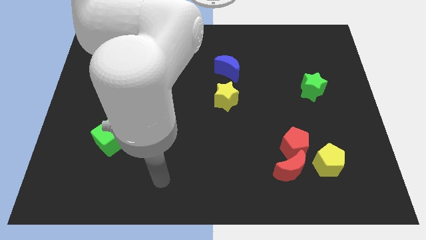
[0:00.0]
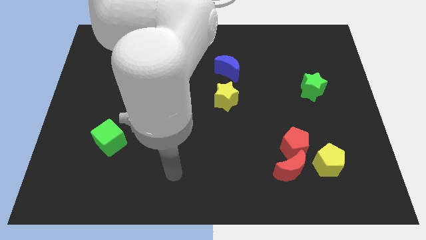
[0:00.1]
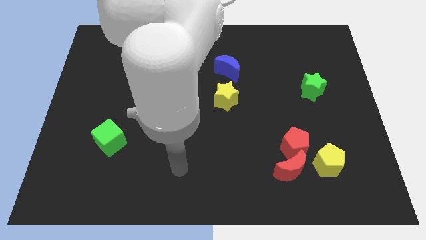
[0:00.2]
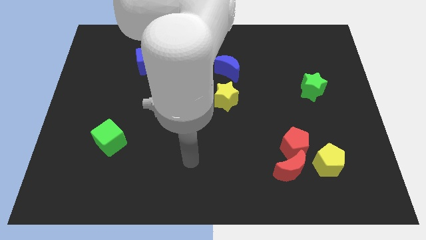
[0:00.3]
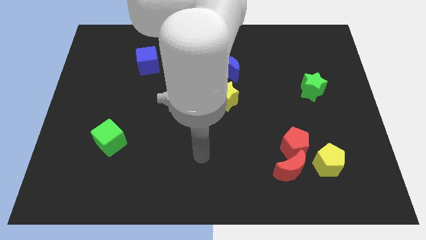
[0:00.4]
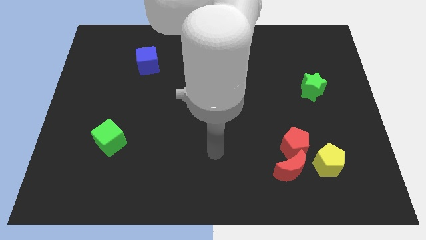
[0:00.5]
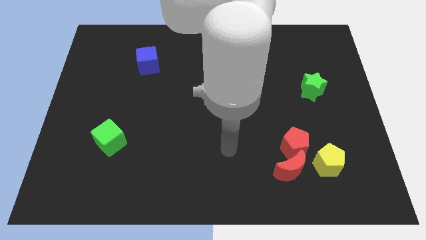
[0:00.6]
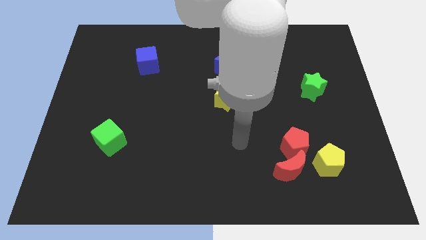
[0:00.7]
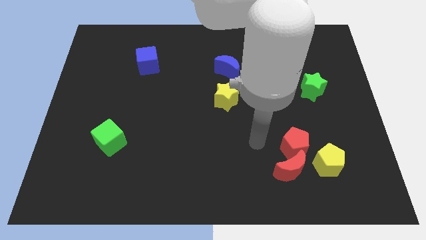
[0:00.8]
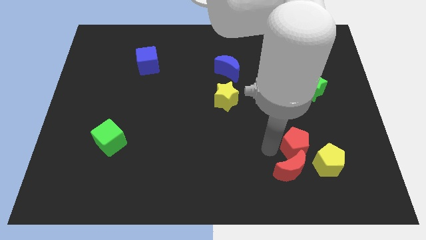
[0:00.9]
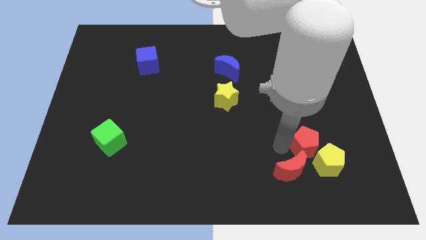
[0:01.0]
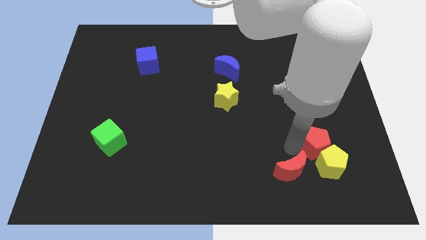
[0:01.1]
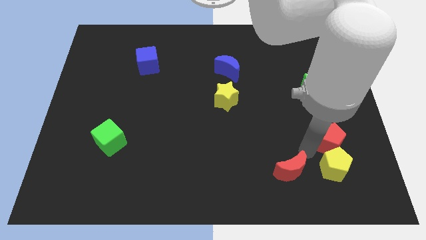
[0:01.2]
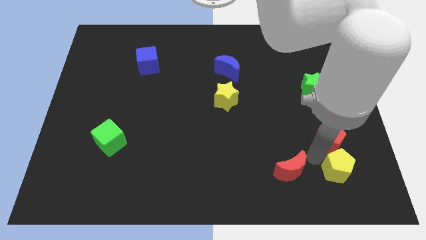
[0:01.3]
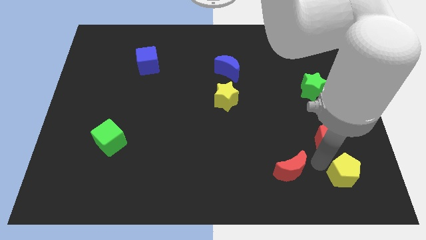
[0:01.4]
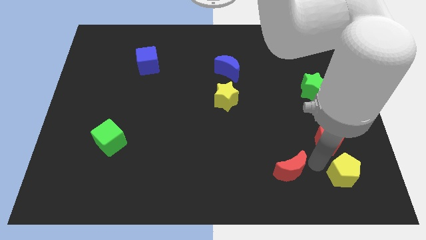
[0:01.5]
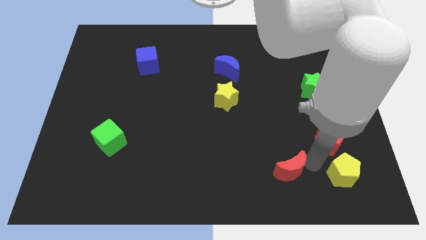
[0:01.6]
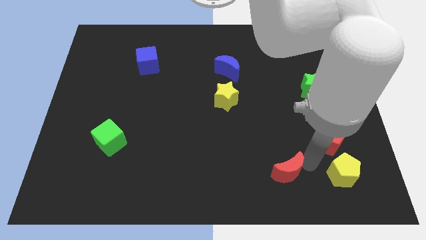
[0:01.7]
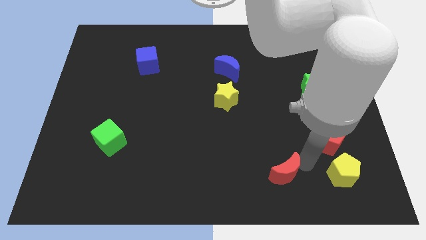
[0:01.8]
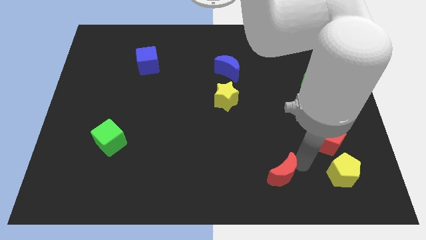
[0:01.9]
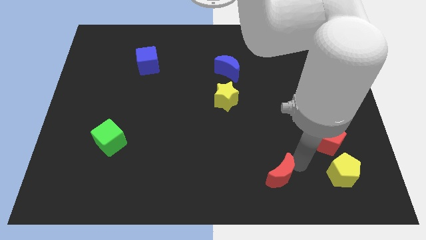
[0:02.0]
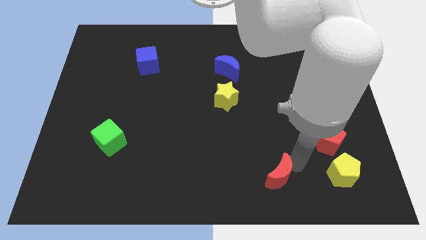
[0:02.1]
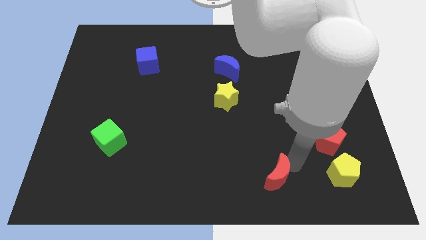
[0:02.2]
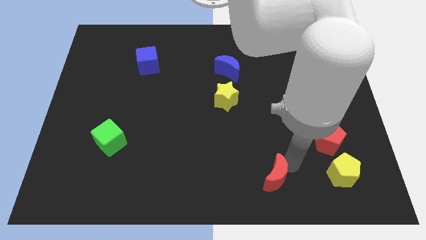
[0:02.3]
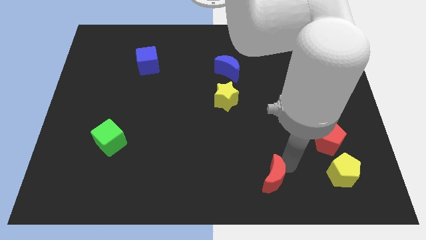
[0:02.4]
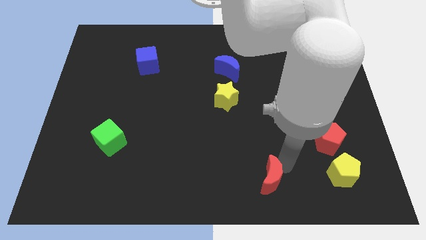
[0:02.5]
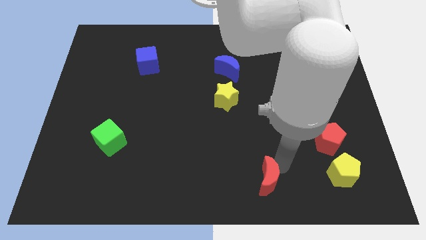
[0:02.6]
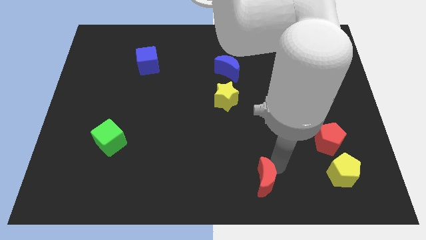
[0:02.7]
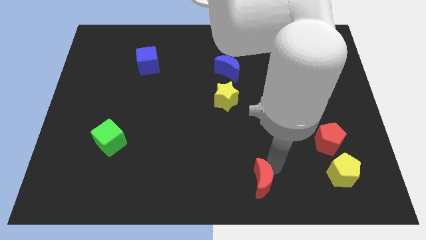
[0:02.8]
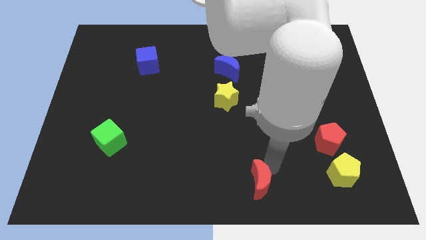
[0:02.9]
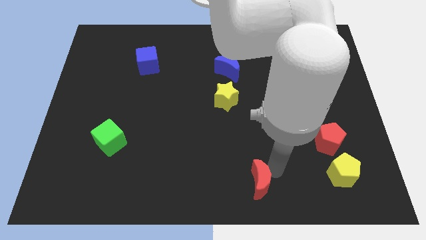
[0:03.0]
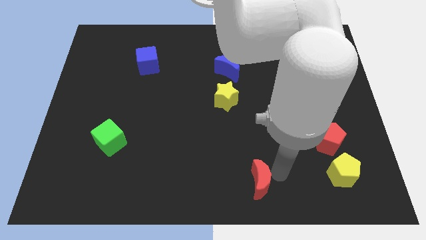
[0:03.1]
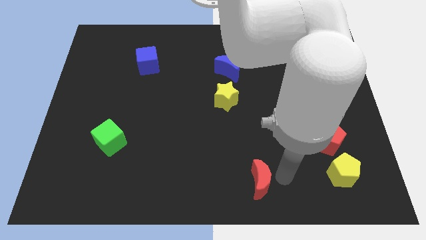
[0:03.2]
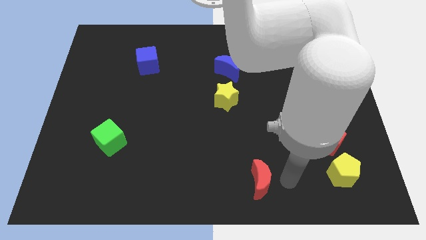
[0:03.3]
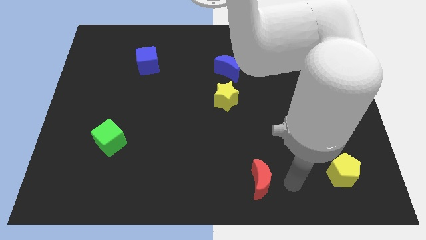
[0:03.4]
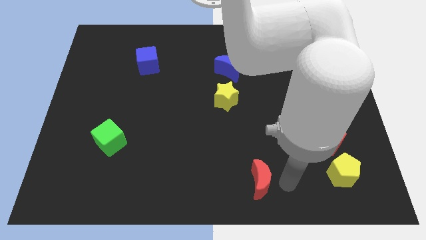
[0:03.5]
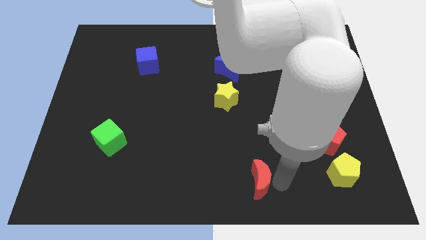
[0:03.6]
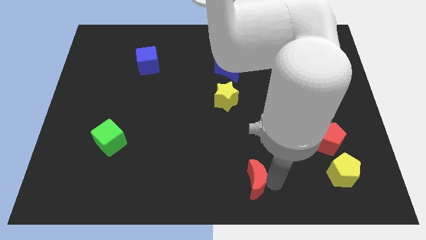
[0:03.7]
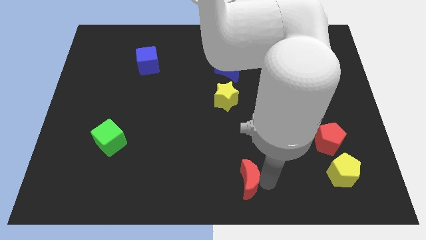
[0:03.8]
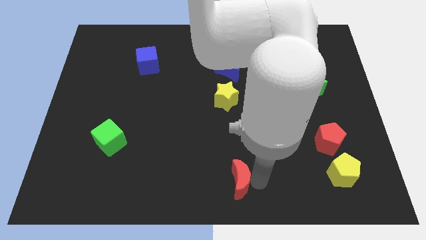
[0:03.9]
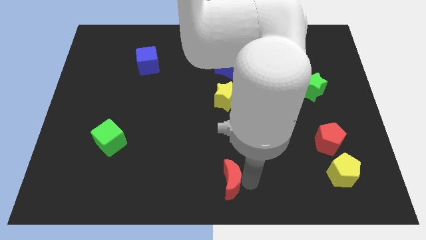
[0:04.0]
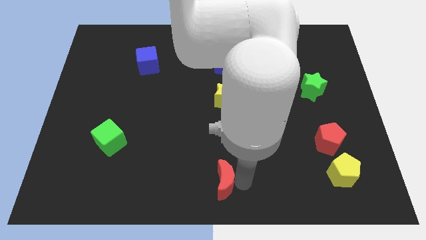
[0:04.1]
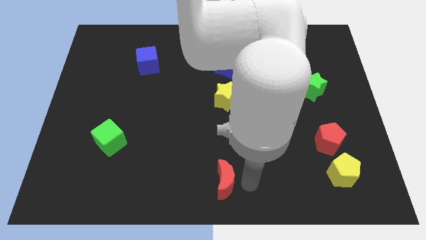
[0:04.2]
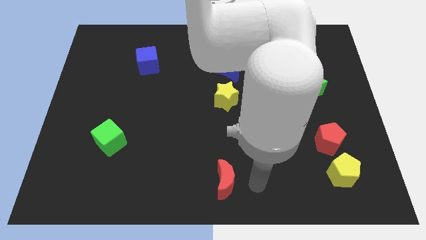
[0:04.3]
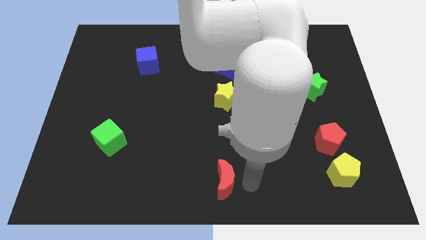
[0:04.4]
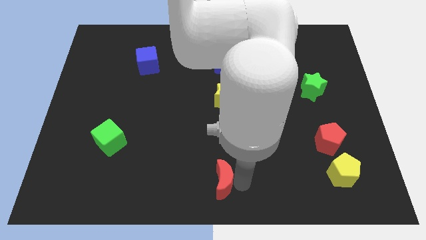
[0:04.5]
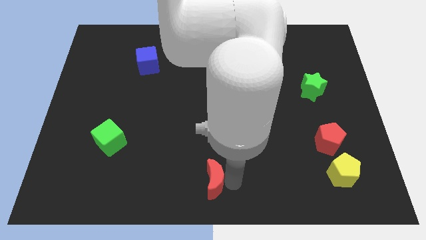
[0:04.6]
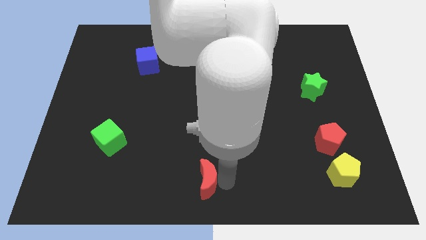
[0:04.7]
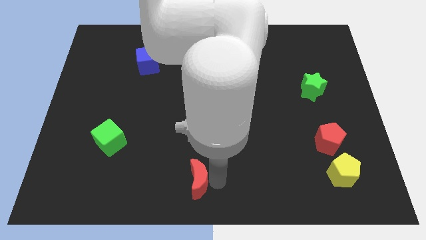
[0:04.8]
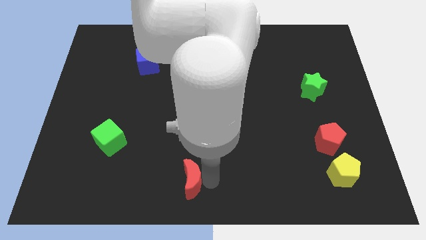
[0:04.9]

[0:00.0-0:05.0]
move the red moon to the left

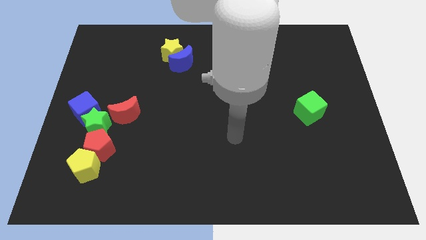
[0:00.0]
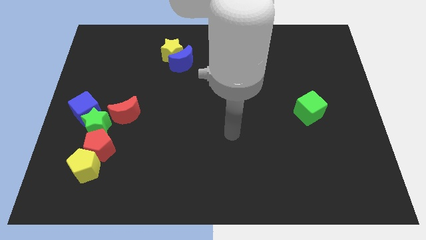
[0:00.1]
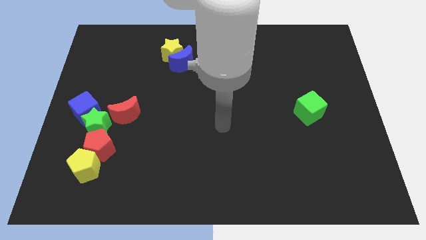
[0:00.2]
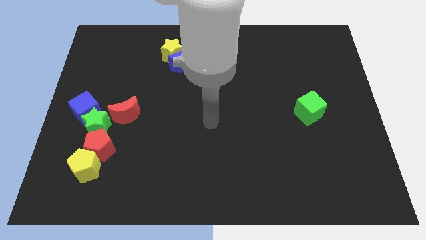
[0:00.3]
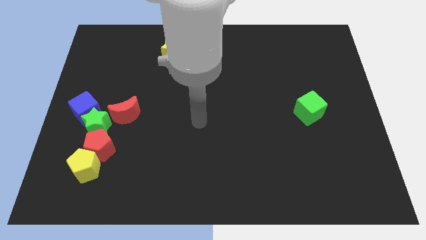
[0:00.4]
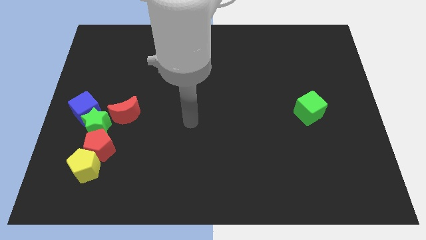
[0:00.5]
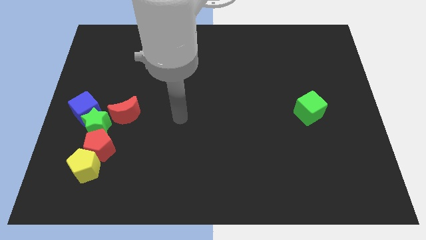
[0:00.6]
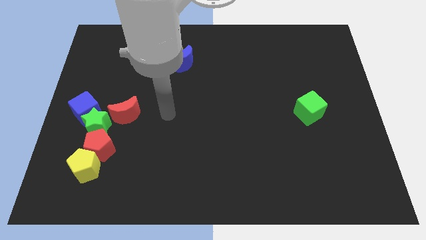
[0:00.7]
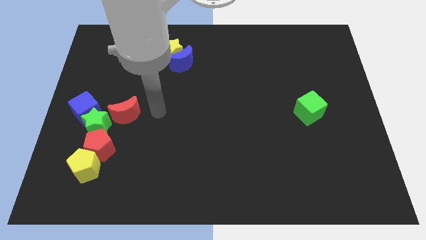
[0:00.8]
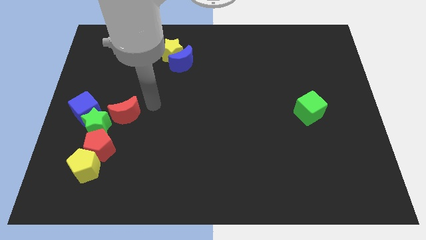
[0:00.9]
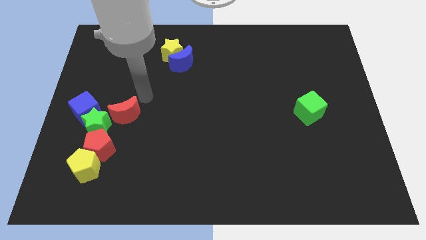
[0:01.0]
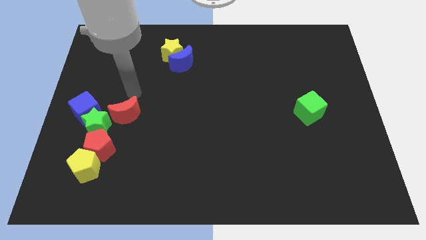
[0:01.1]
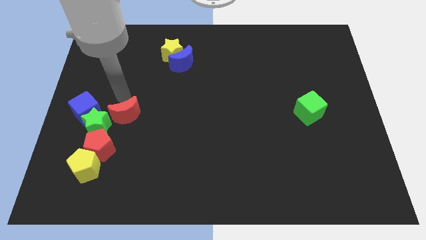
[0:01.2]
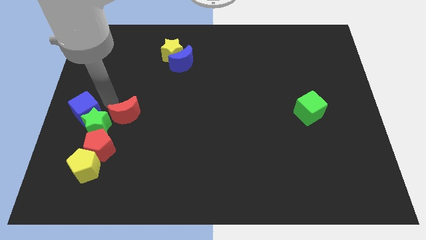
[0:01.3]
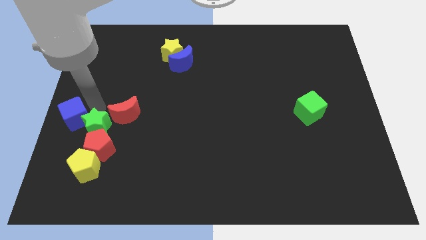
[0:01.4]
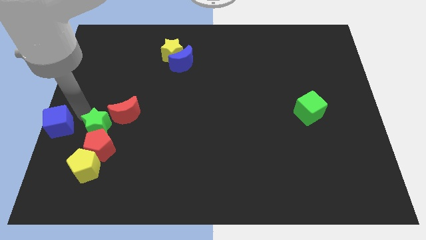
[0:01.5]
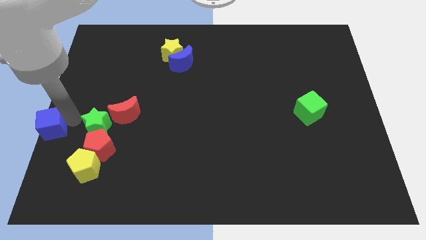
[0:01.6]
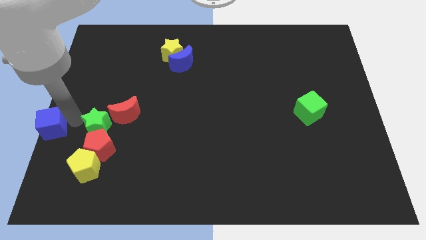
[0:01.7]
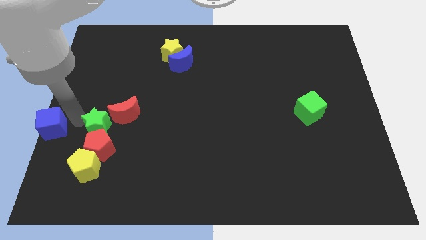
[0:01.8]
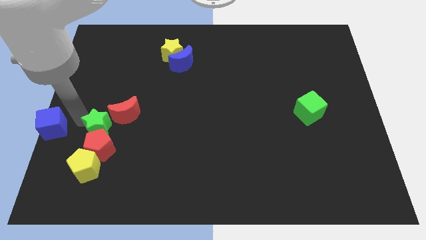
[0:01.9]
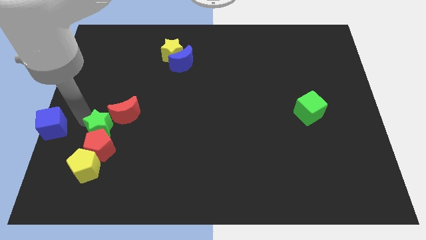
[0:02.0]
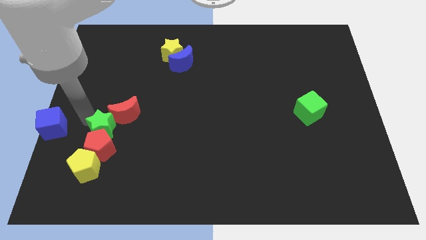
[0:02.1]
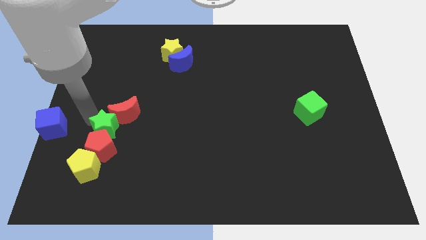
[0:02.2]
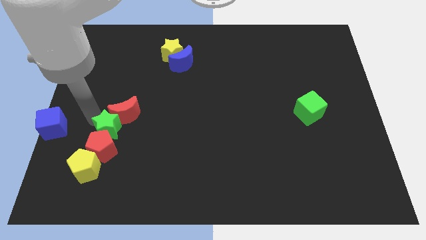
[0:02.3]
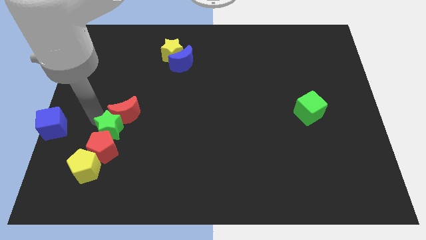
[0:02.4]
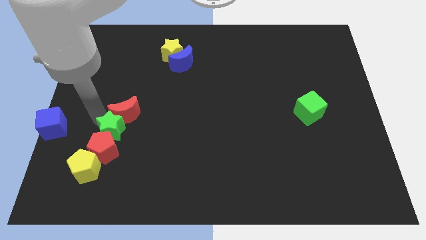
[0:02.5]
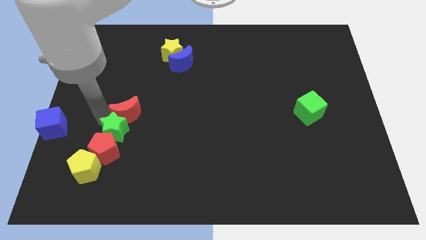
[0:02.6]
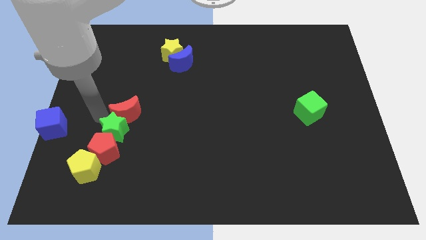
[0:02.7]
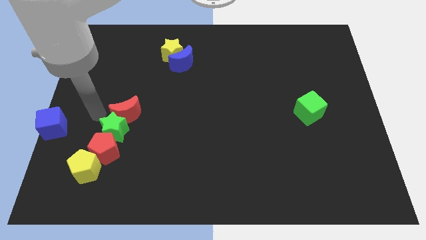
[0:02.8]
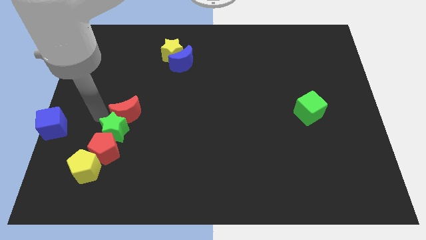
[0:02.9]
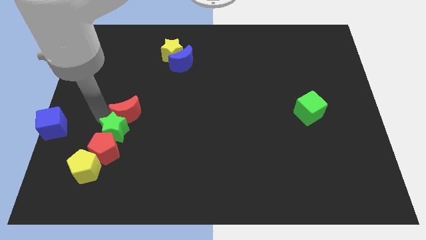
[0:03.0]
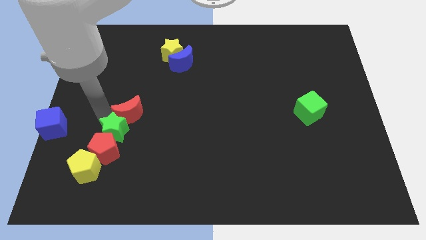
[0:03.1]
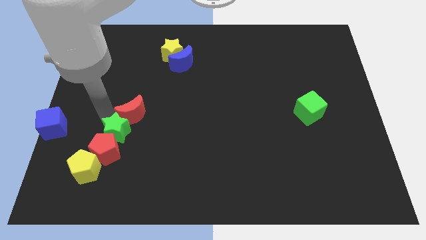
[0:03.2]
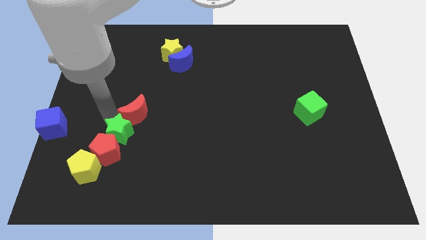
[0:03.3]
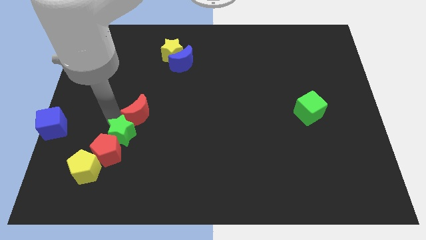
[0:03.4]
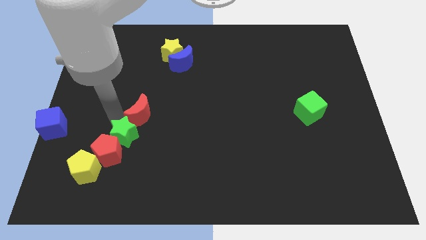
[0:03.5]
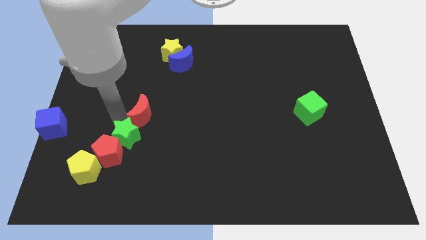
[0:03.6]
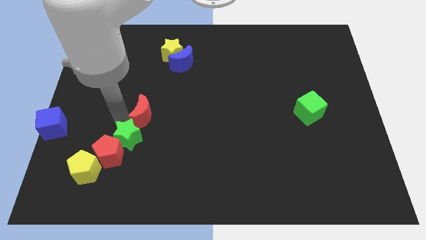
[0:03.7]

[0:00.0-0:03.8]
move the green star a little diagonally downwards and to the right
